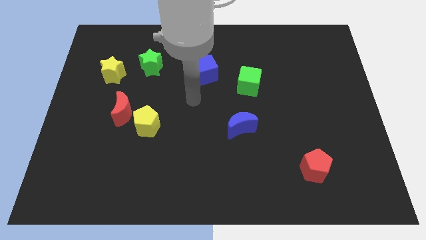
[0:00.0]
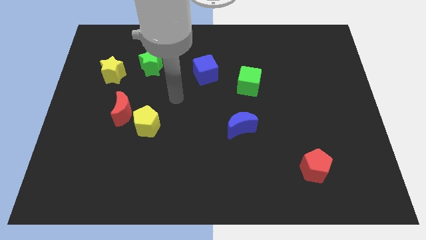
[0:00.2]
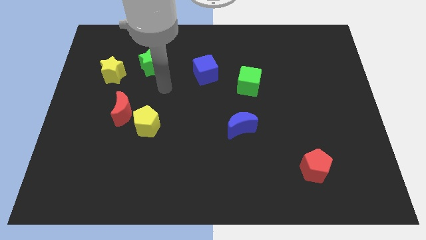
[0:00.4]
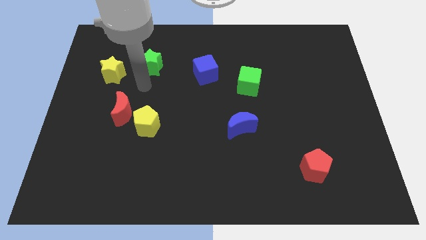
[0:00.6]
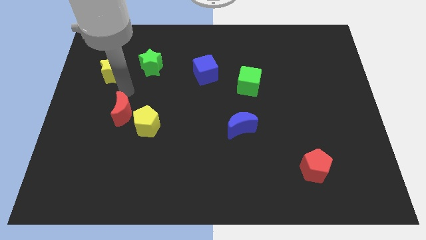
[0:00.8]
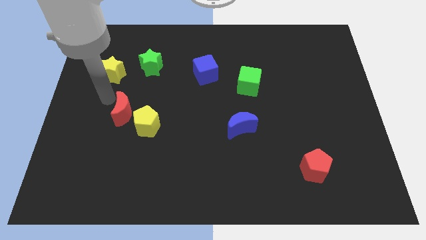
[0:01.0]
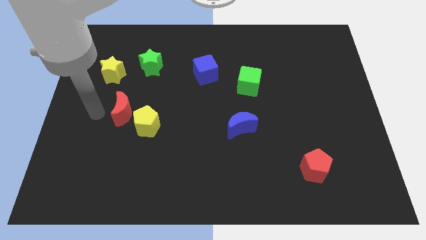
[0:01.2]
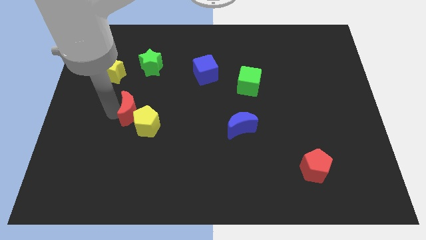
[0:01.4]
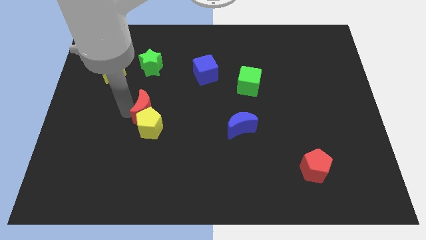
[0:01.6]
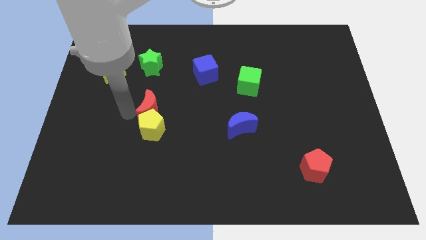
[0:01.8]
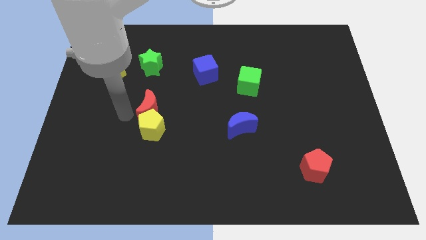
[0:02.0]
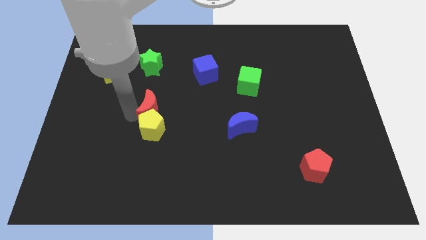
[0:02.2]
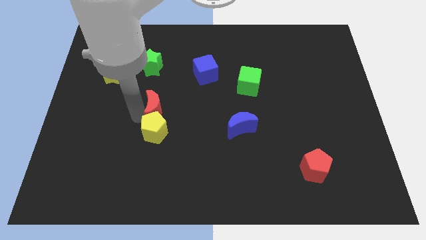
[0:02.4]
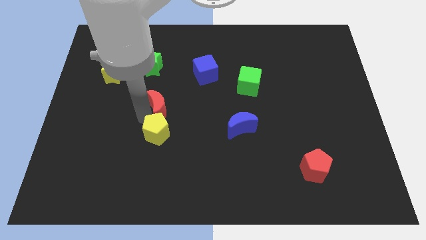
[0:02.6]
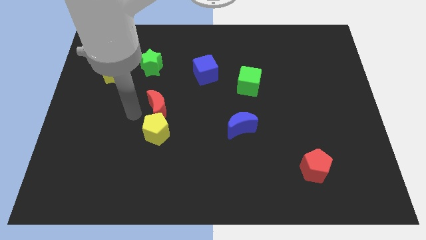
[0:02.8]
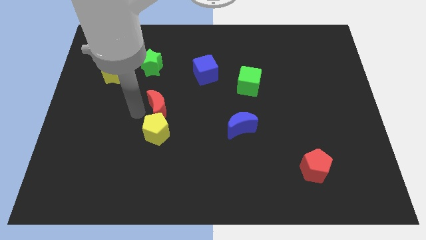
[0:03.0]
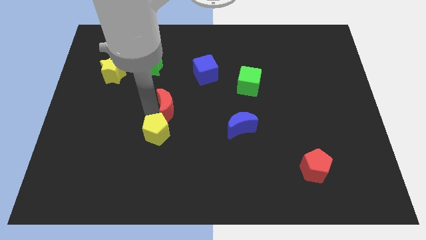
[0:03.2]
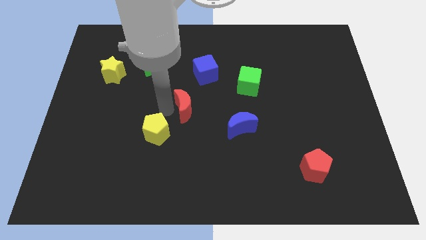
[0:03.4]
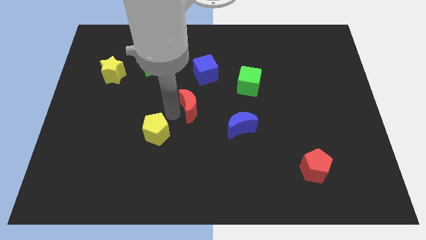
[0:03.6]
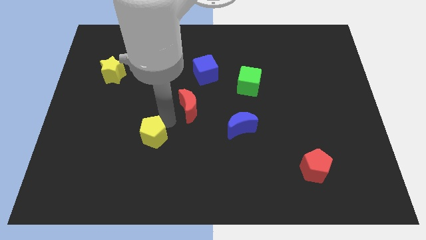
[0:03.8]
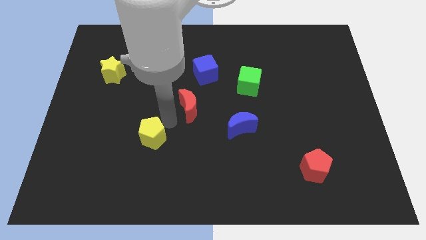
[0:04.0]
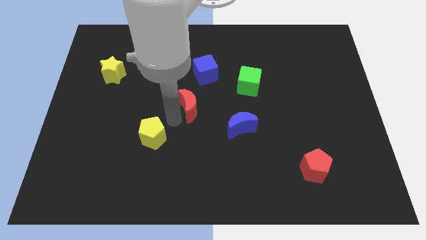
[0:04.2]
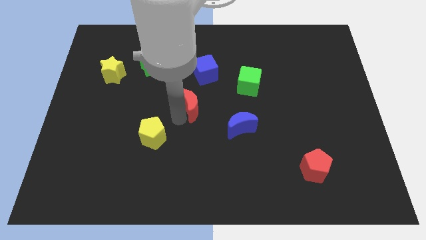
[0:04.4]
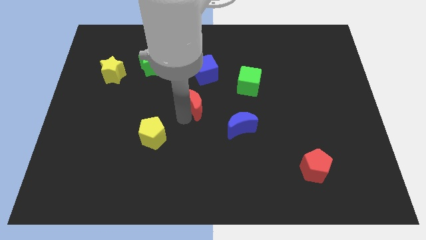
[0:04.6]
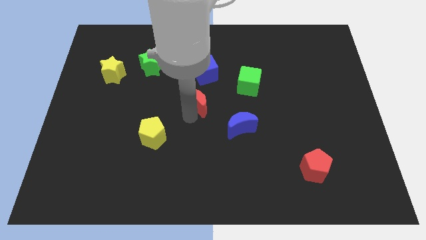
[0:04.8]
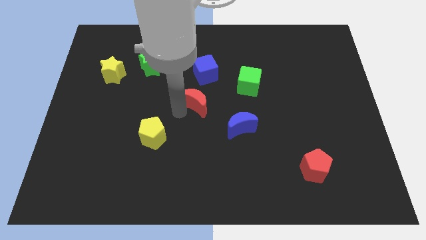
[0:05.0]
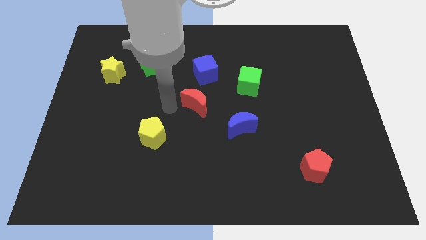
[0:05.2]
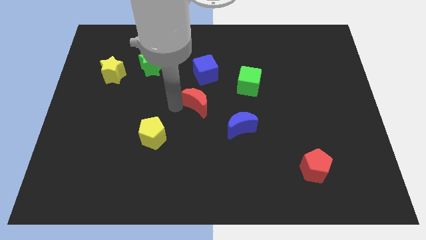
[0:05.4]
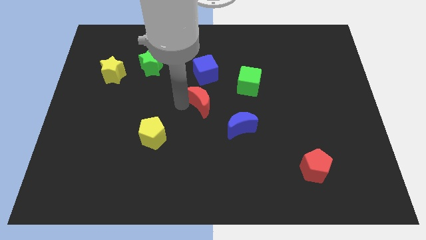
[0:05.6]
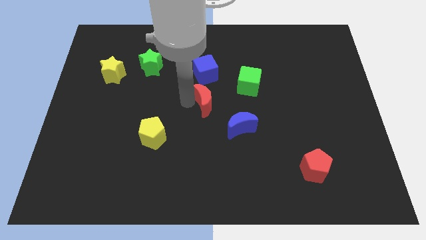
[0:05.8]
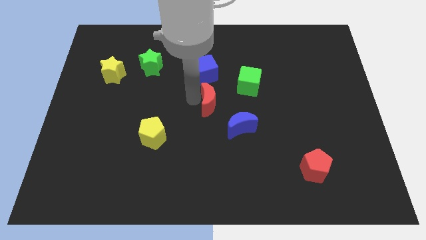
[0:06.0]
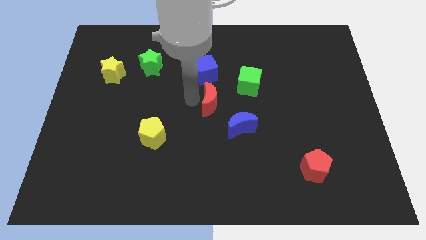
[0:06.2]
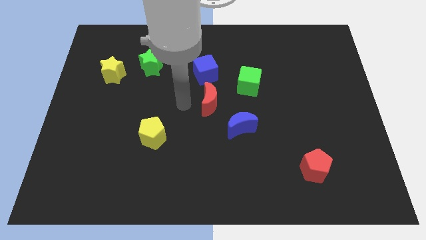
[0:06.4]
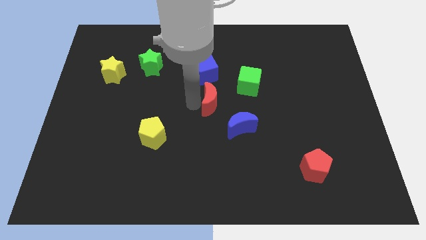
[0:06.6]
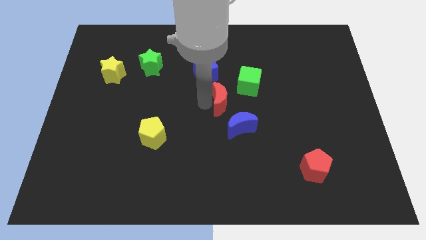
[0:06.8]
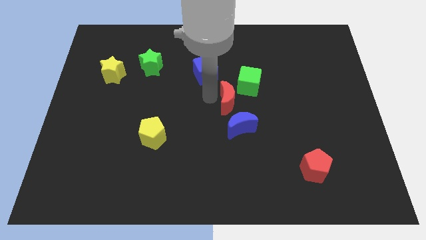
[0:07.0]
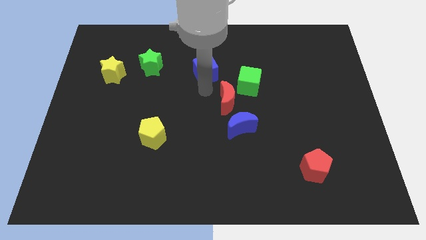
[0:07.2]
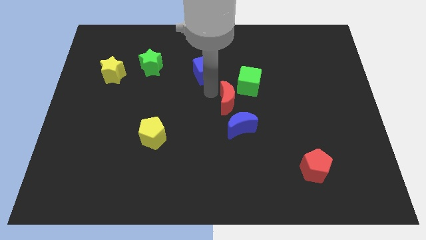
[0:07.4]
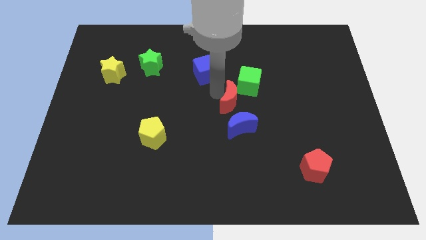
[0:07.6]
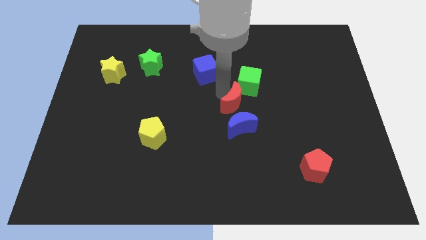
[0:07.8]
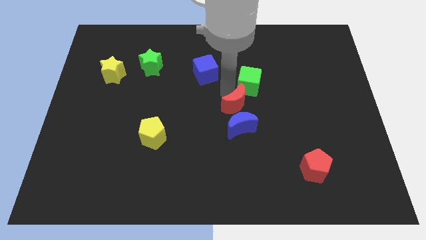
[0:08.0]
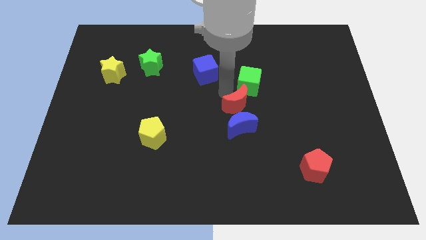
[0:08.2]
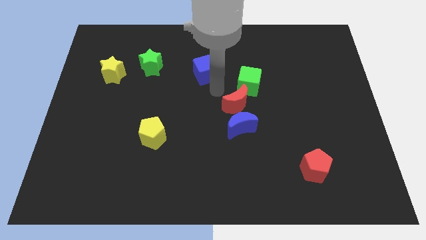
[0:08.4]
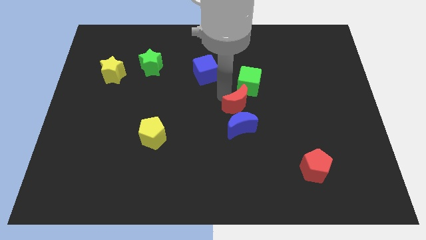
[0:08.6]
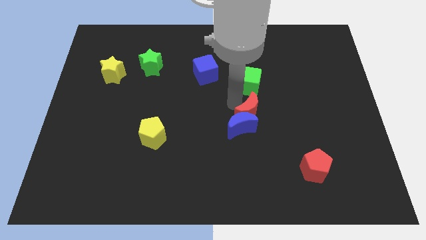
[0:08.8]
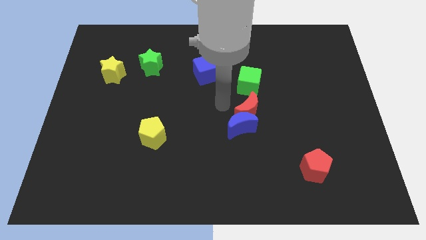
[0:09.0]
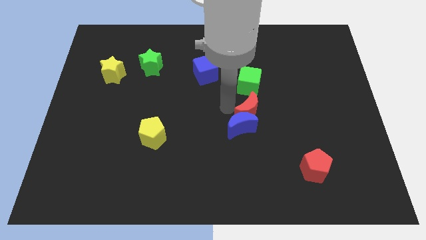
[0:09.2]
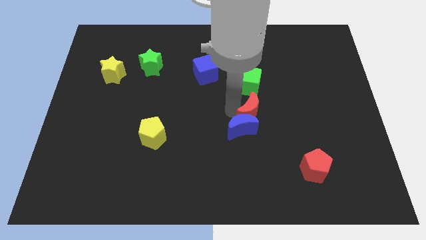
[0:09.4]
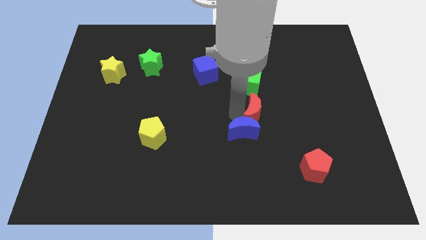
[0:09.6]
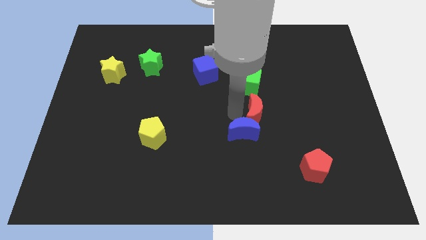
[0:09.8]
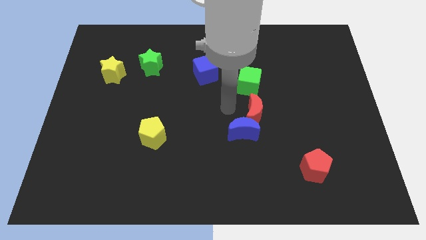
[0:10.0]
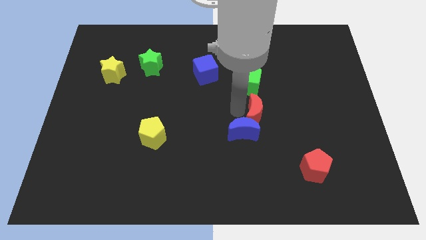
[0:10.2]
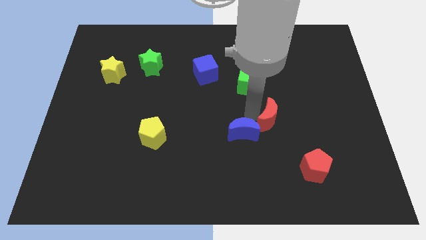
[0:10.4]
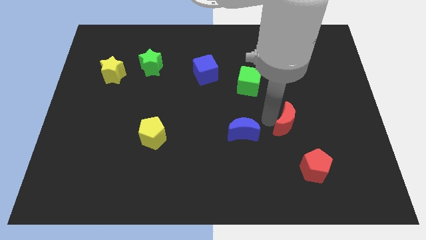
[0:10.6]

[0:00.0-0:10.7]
push the red moon above the red pentagon

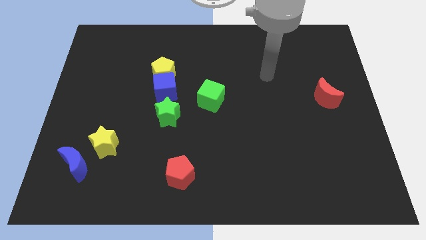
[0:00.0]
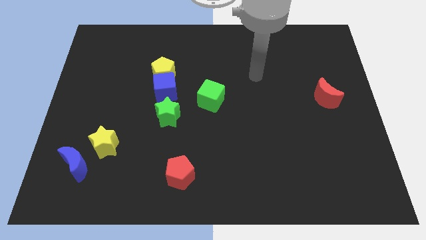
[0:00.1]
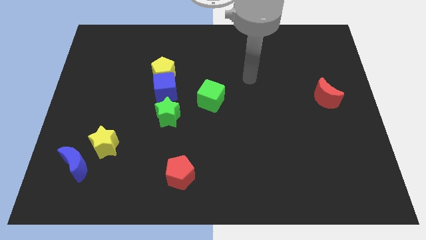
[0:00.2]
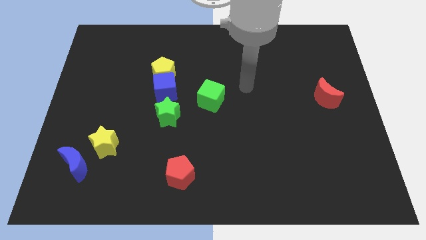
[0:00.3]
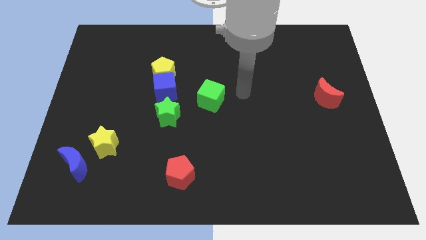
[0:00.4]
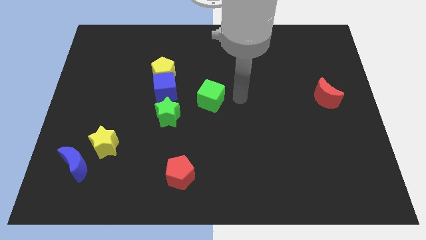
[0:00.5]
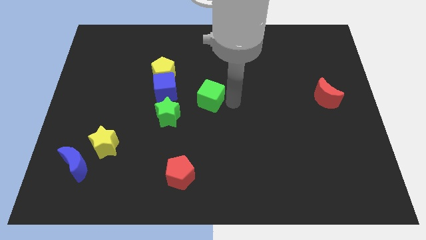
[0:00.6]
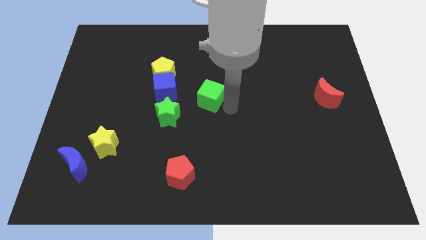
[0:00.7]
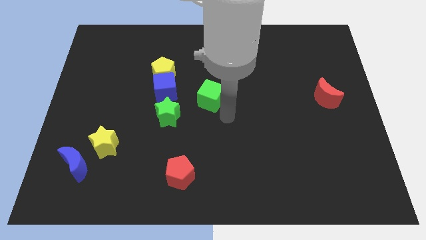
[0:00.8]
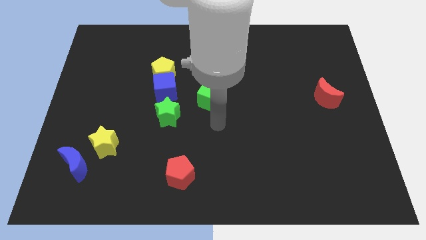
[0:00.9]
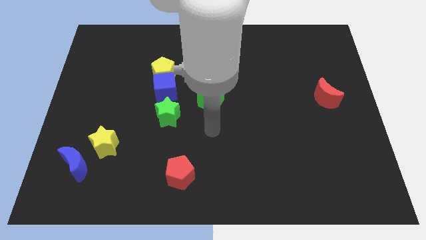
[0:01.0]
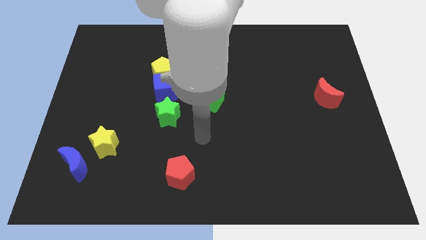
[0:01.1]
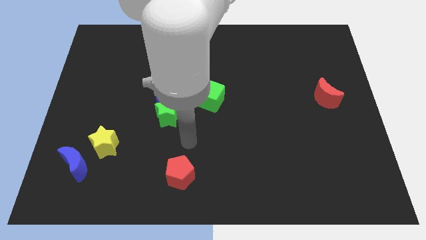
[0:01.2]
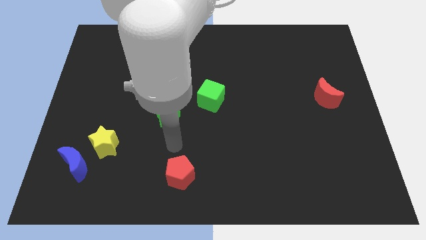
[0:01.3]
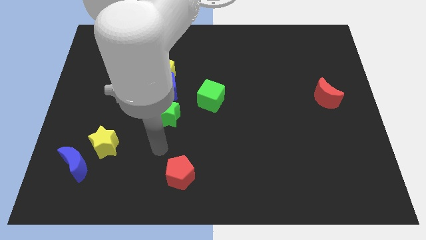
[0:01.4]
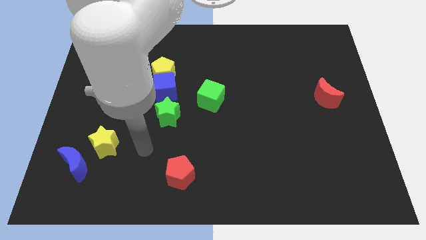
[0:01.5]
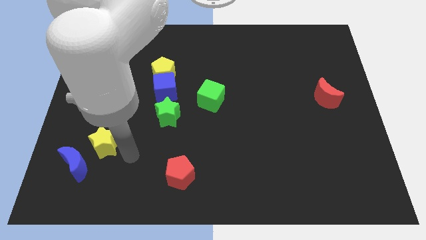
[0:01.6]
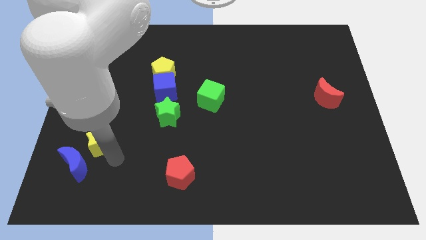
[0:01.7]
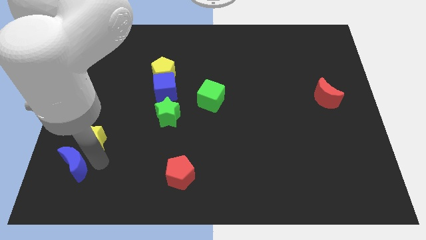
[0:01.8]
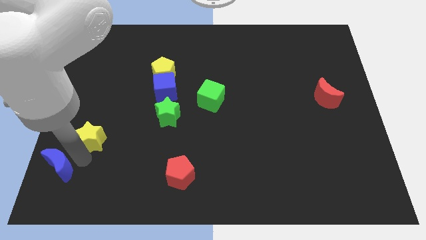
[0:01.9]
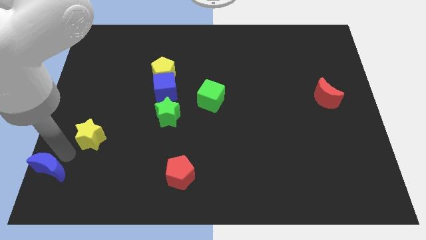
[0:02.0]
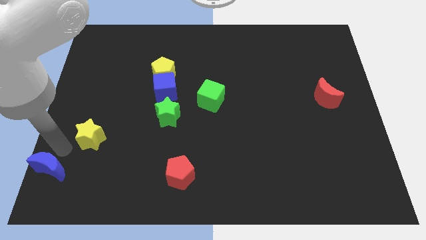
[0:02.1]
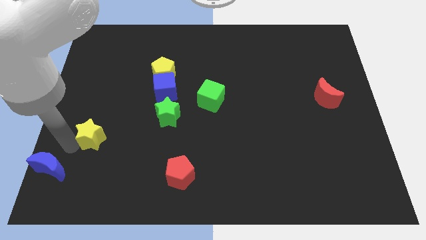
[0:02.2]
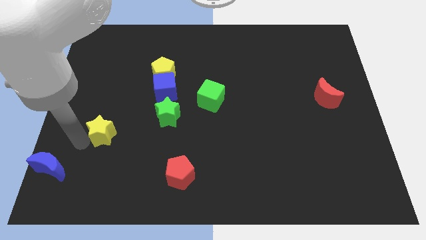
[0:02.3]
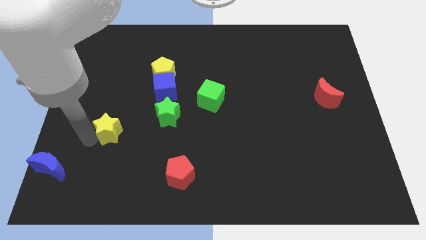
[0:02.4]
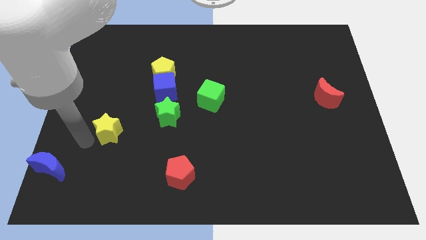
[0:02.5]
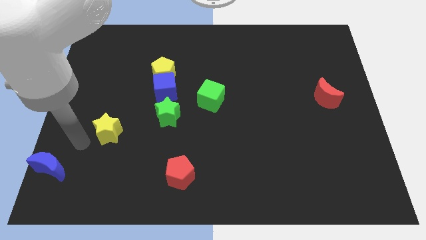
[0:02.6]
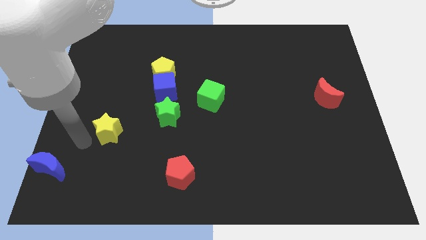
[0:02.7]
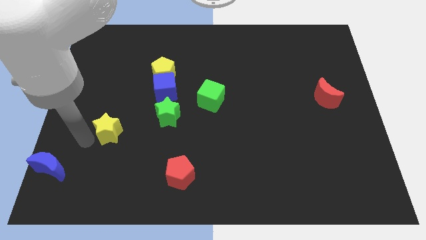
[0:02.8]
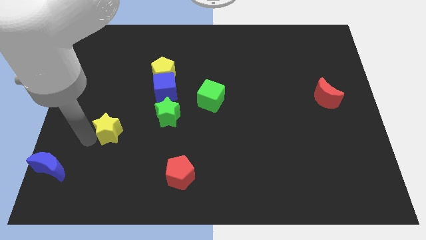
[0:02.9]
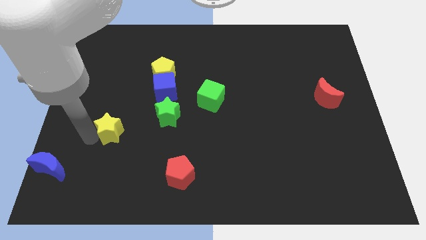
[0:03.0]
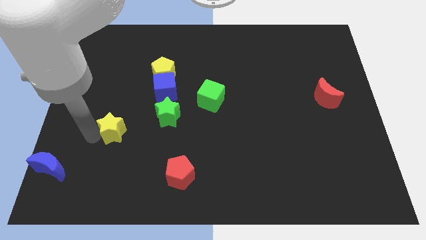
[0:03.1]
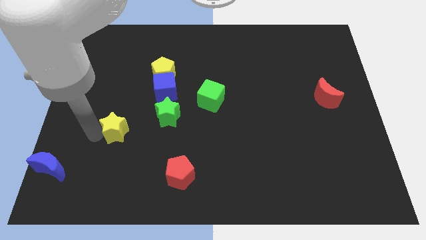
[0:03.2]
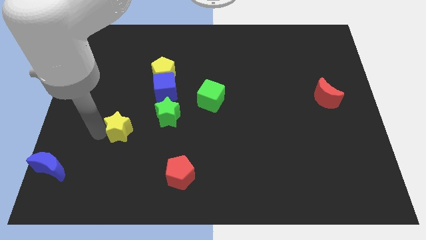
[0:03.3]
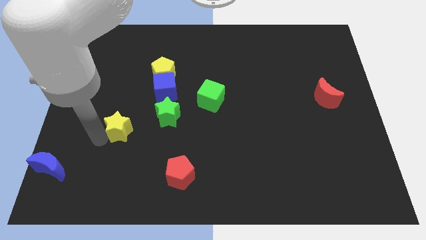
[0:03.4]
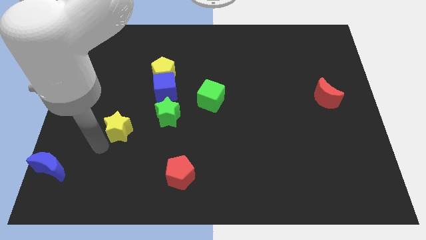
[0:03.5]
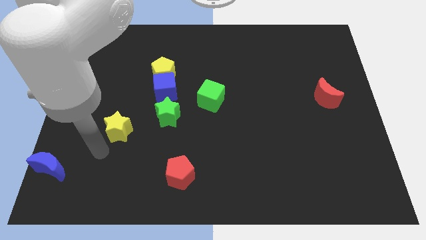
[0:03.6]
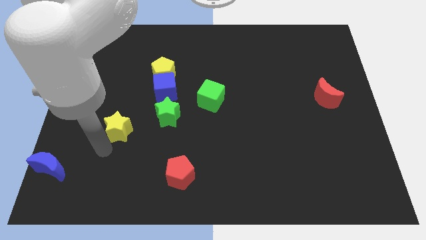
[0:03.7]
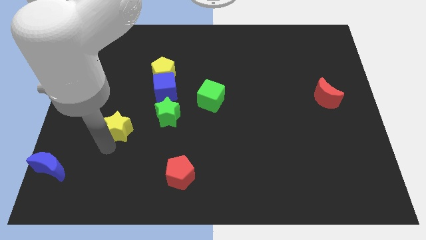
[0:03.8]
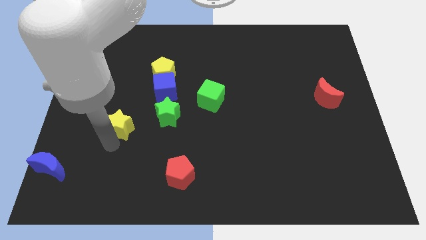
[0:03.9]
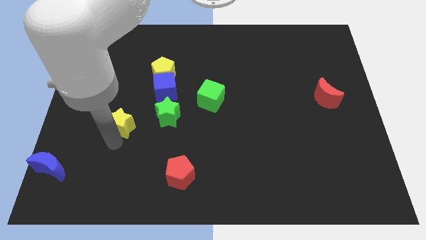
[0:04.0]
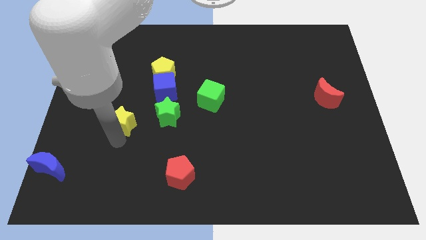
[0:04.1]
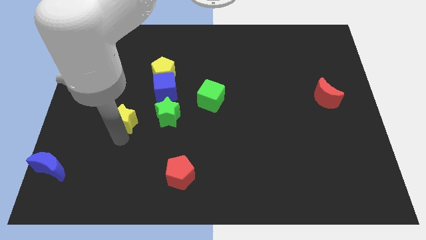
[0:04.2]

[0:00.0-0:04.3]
push the yellow star diagonally down and to the left of the blue cube
